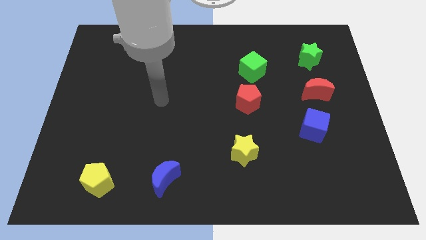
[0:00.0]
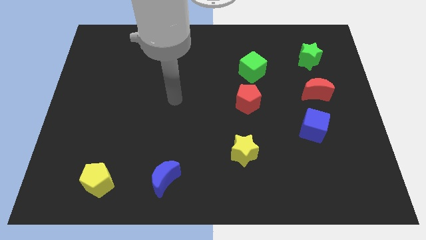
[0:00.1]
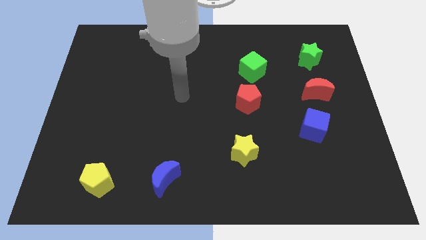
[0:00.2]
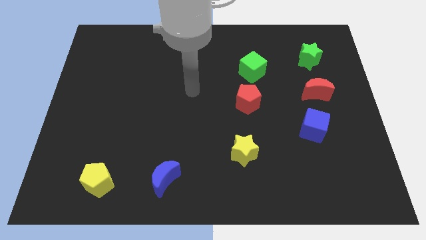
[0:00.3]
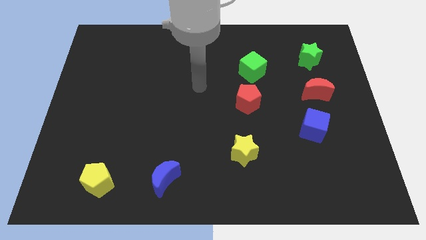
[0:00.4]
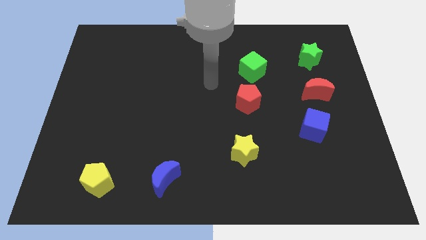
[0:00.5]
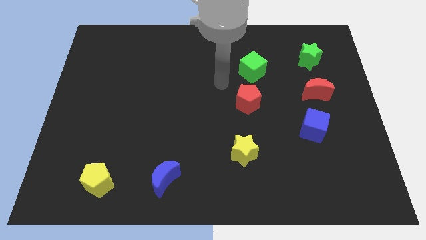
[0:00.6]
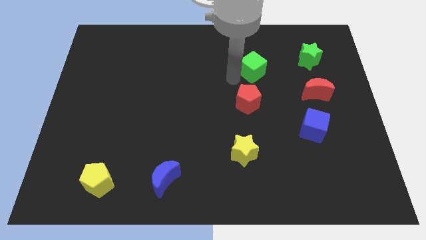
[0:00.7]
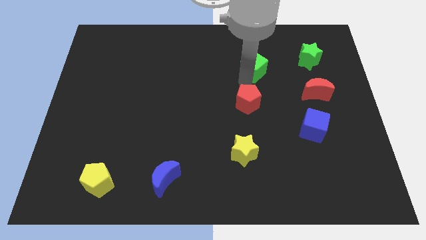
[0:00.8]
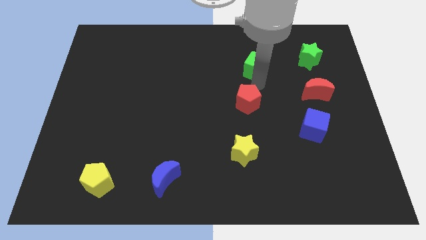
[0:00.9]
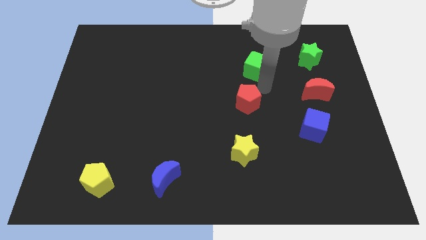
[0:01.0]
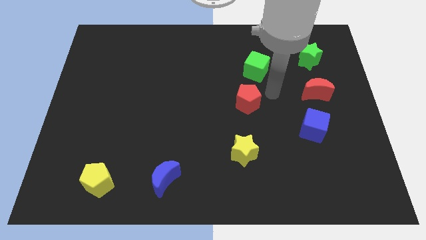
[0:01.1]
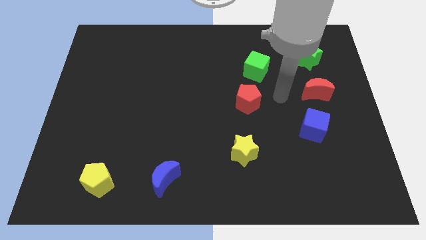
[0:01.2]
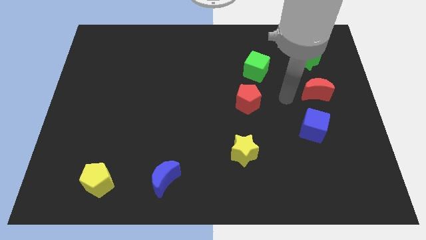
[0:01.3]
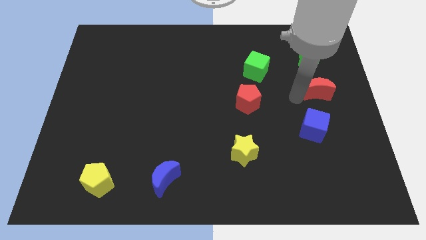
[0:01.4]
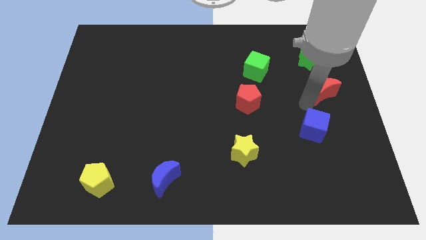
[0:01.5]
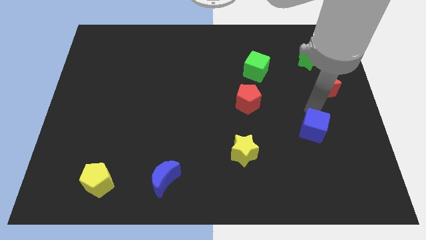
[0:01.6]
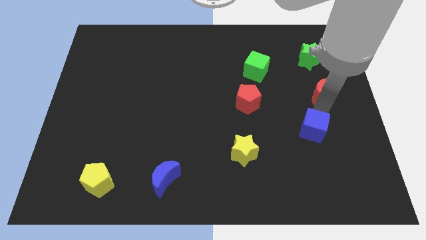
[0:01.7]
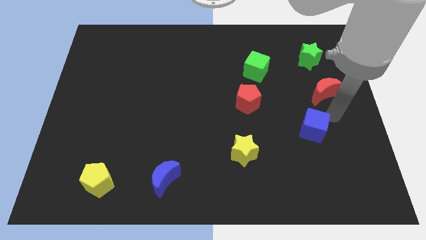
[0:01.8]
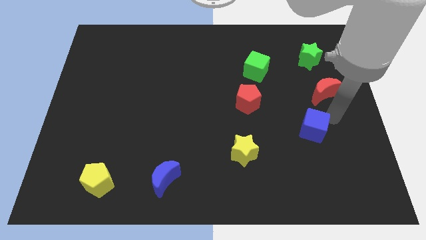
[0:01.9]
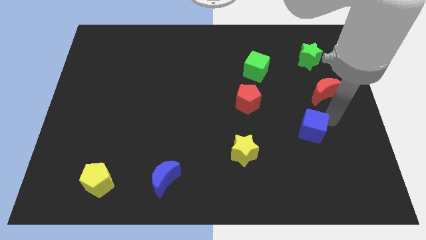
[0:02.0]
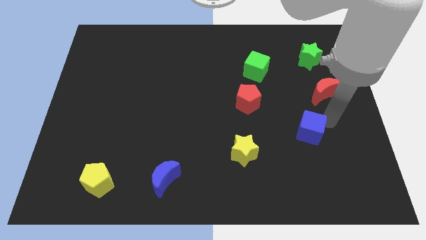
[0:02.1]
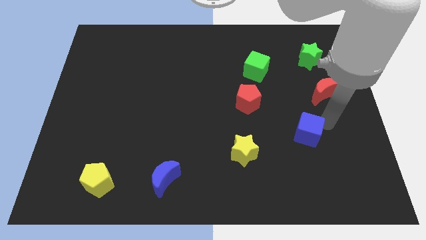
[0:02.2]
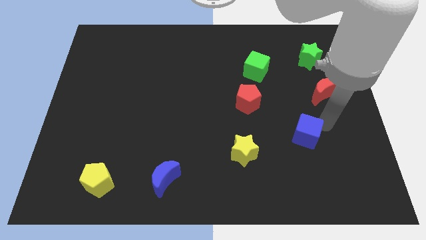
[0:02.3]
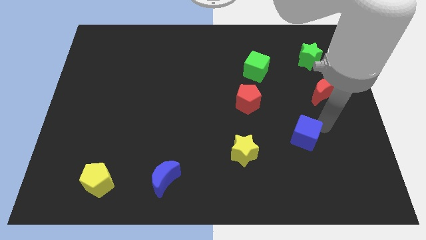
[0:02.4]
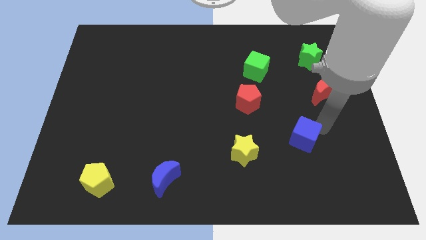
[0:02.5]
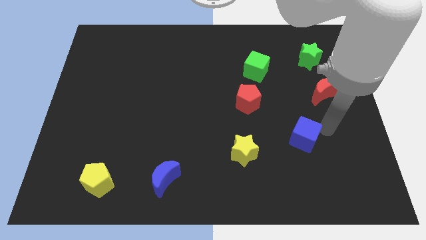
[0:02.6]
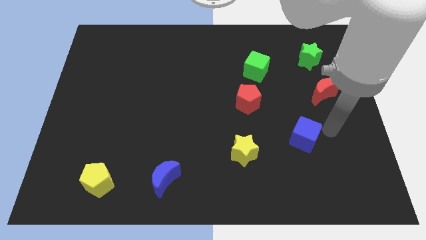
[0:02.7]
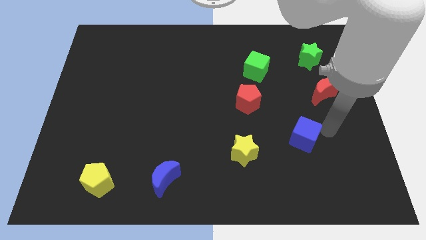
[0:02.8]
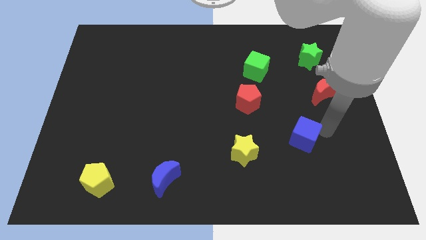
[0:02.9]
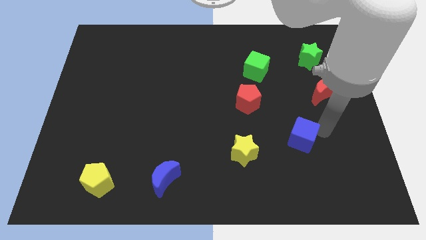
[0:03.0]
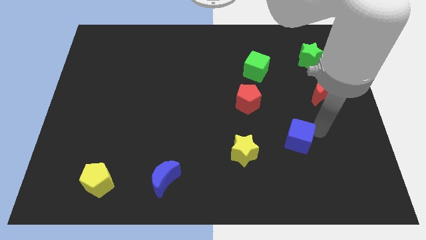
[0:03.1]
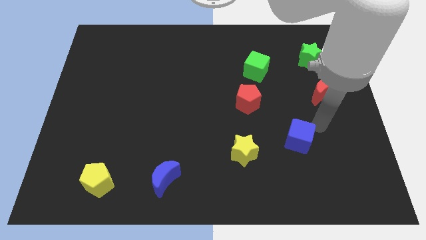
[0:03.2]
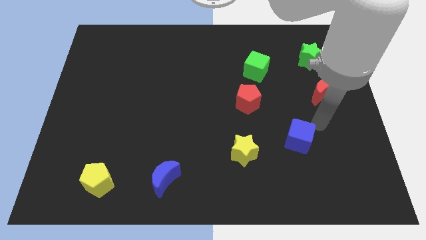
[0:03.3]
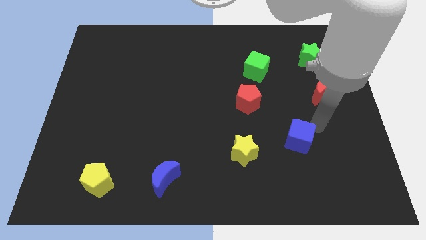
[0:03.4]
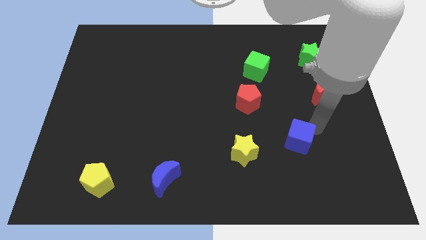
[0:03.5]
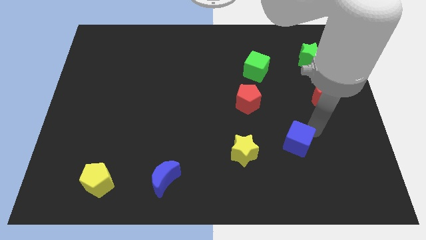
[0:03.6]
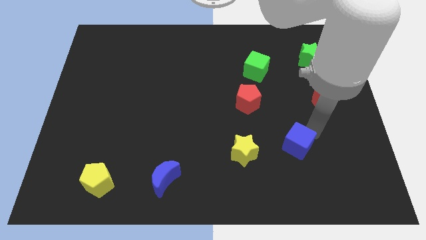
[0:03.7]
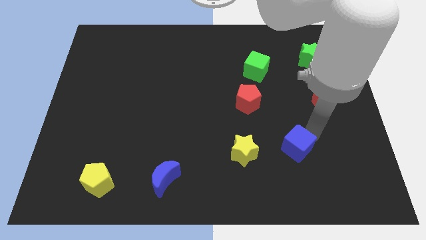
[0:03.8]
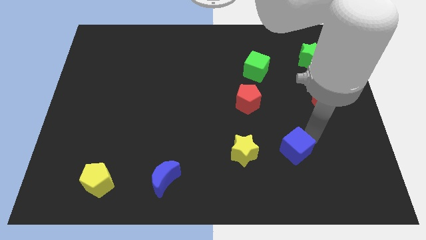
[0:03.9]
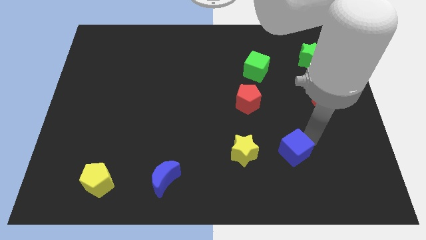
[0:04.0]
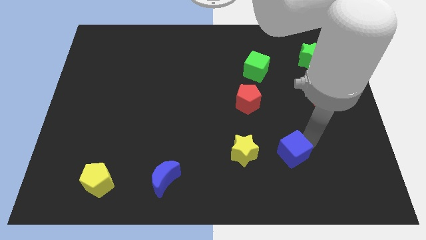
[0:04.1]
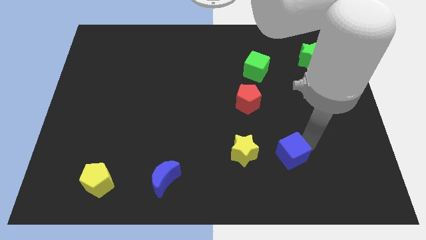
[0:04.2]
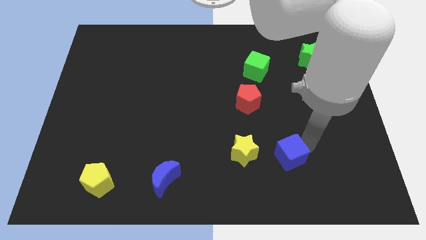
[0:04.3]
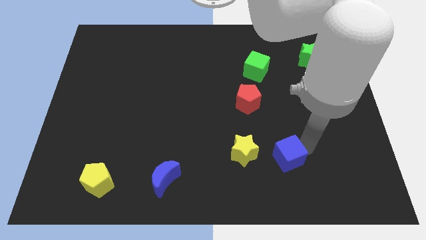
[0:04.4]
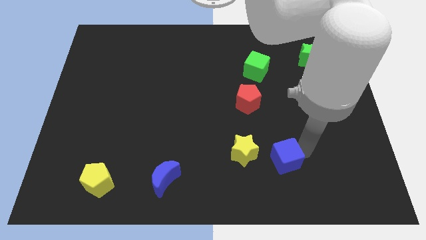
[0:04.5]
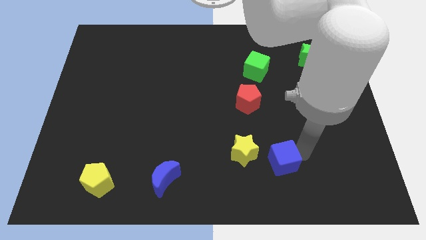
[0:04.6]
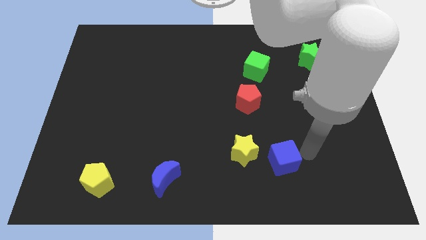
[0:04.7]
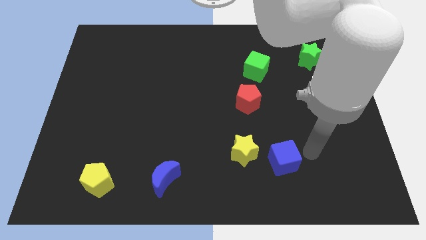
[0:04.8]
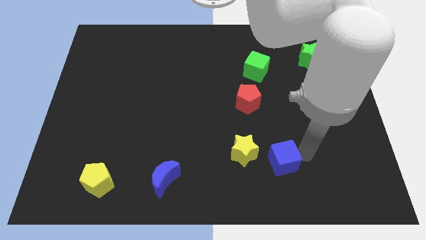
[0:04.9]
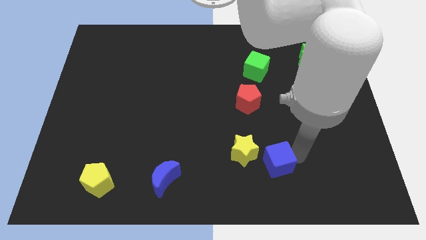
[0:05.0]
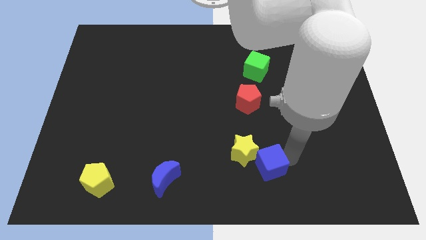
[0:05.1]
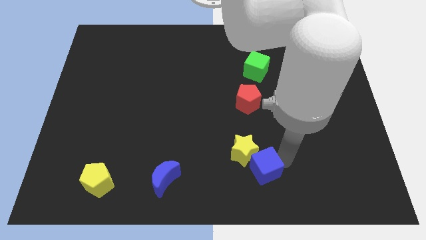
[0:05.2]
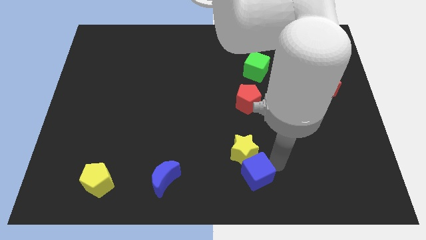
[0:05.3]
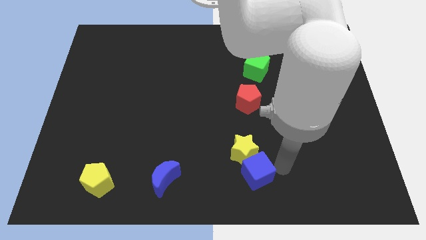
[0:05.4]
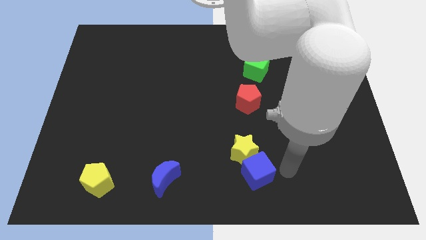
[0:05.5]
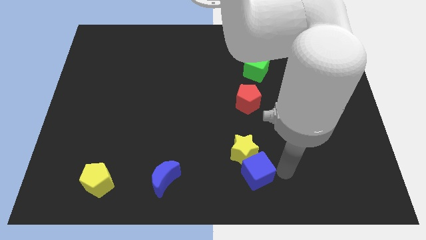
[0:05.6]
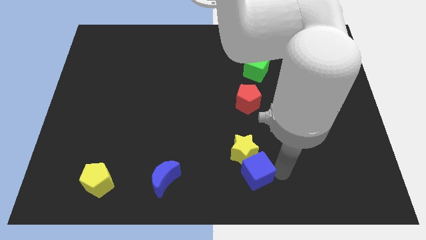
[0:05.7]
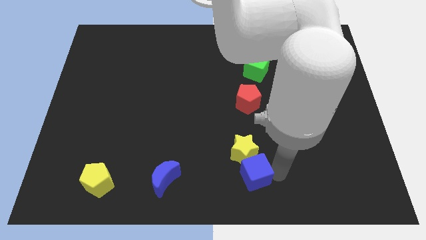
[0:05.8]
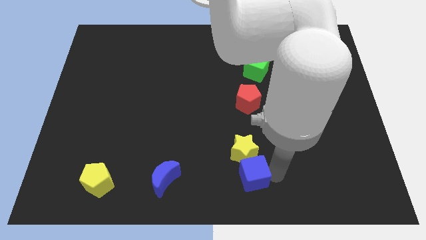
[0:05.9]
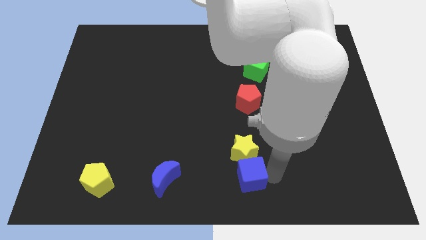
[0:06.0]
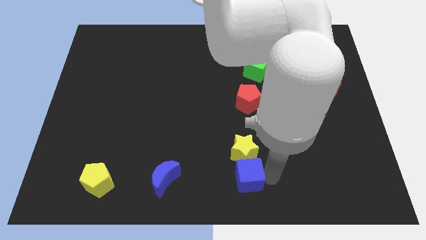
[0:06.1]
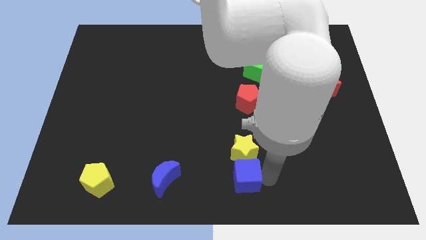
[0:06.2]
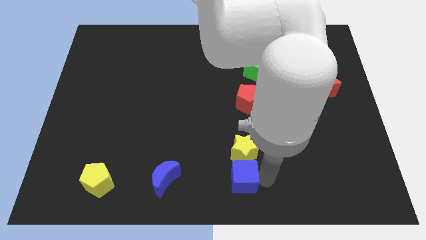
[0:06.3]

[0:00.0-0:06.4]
slide the blue cube to the right of the blue moon
